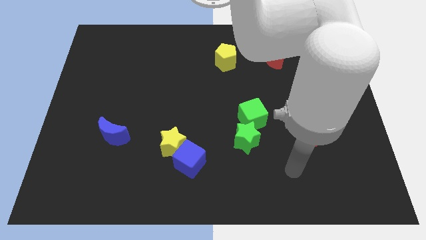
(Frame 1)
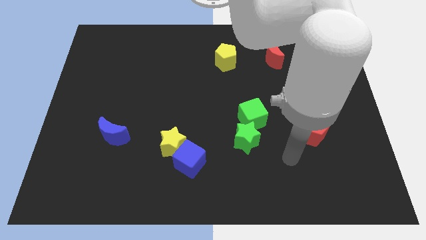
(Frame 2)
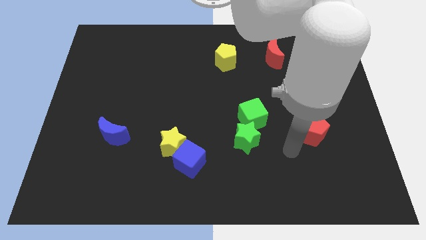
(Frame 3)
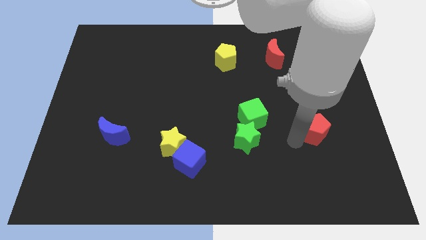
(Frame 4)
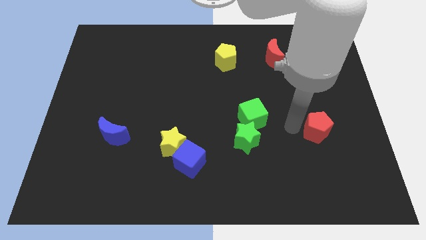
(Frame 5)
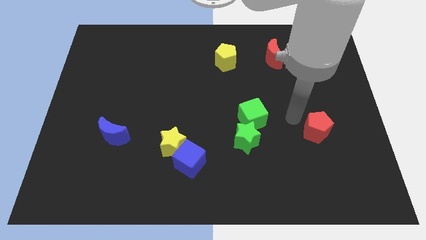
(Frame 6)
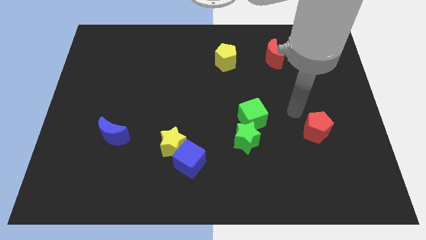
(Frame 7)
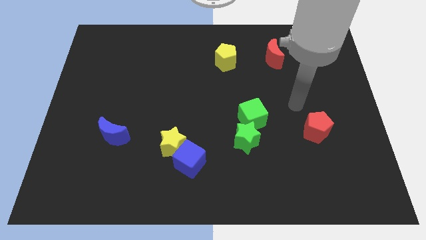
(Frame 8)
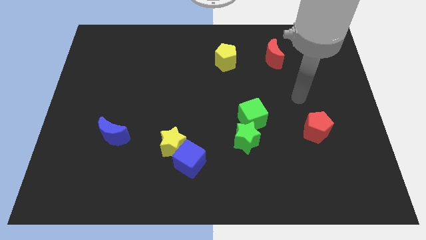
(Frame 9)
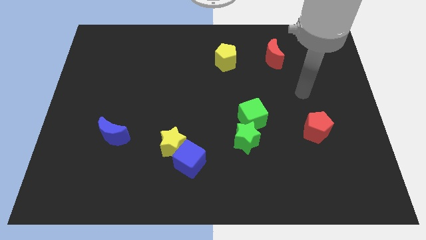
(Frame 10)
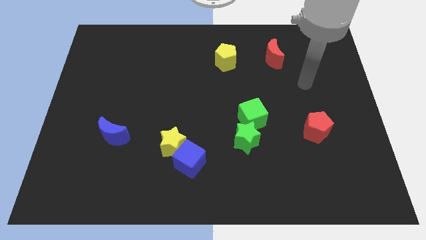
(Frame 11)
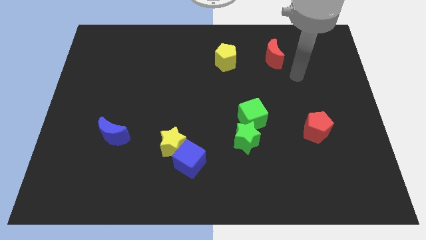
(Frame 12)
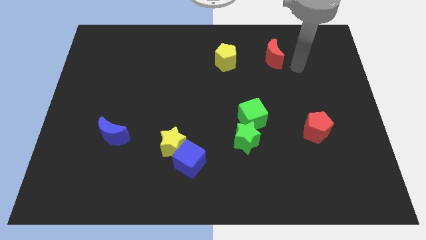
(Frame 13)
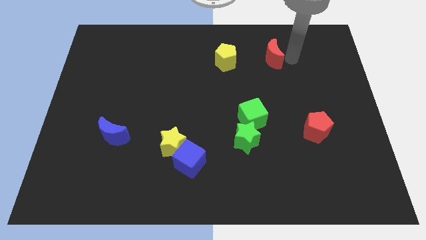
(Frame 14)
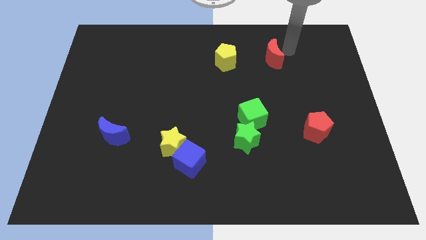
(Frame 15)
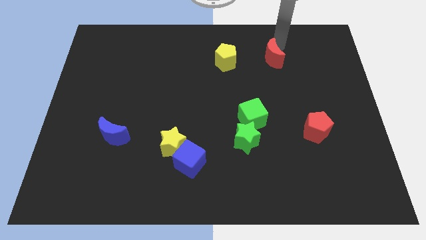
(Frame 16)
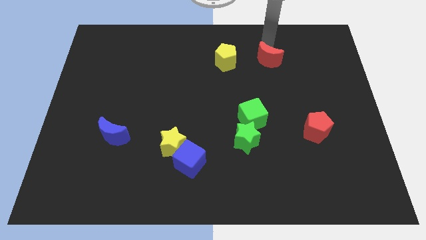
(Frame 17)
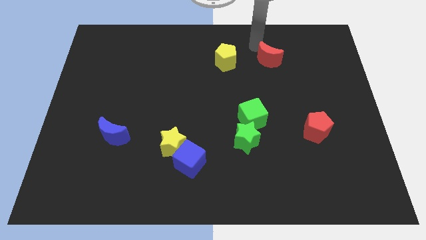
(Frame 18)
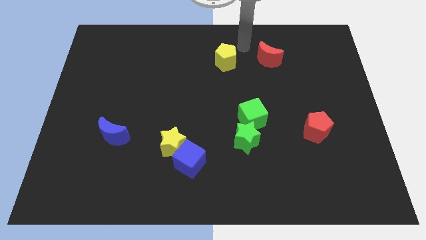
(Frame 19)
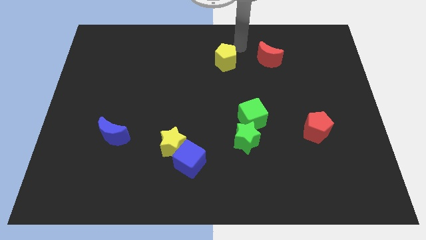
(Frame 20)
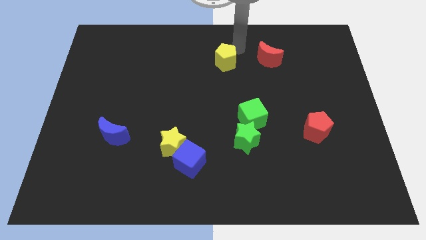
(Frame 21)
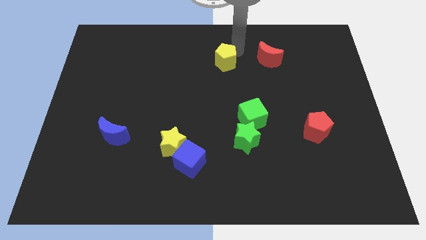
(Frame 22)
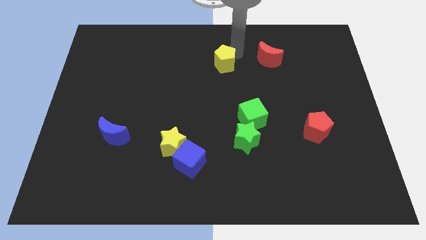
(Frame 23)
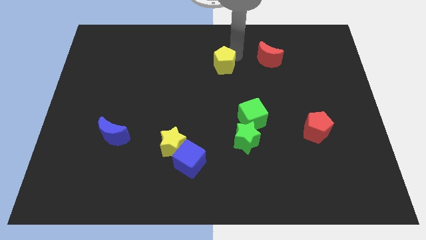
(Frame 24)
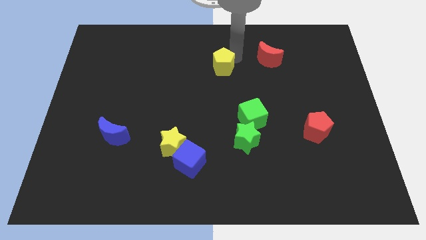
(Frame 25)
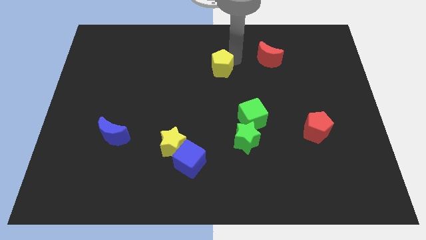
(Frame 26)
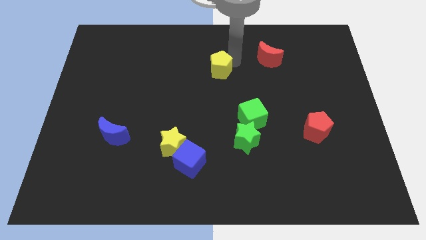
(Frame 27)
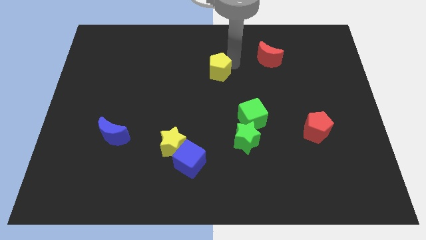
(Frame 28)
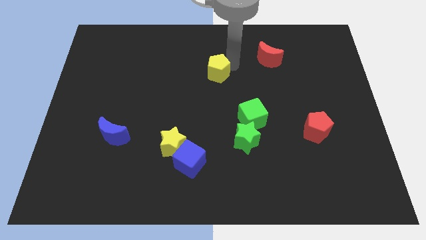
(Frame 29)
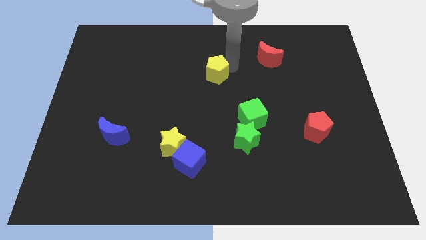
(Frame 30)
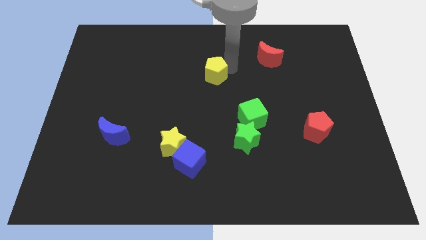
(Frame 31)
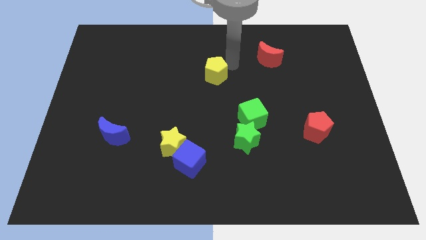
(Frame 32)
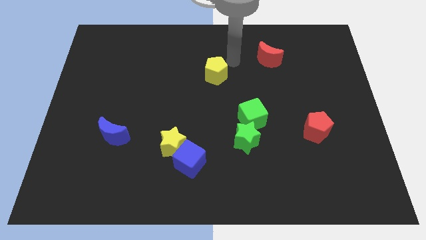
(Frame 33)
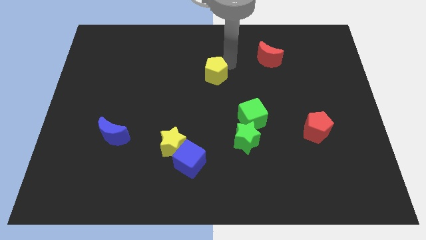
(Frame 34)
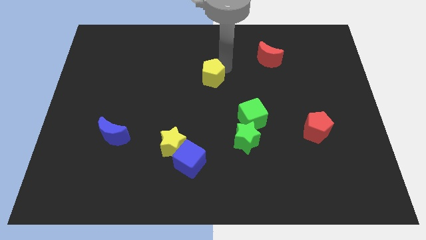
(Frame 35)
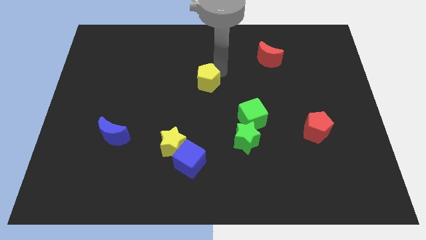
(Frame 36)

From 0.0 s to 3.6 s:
slide the yellow pentagon a bit downwards and then to the left

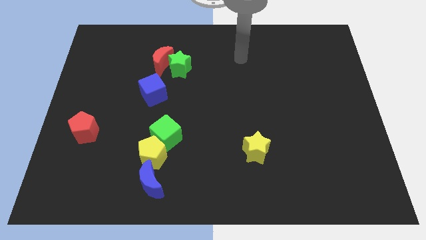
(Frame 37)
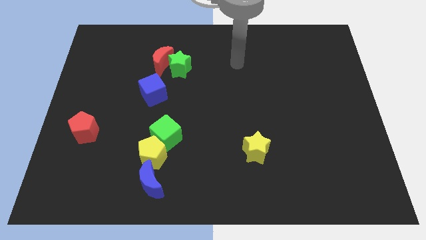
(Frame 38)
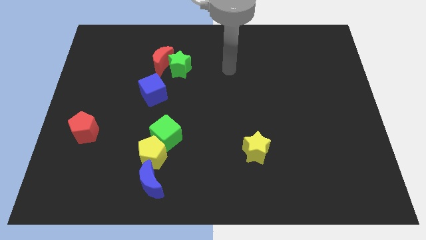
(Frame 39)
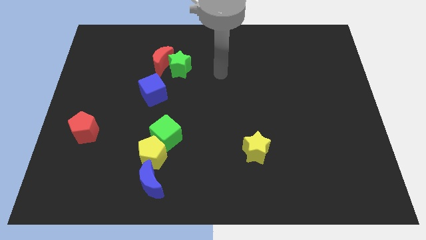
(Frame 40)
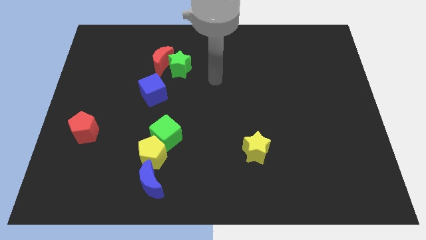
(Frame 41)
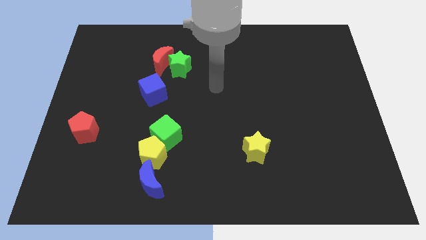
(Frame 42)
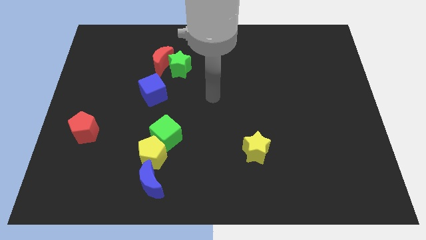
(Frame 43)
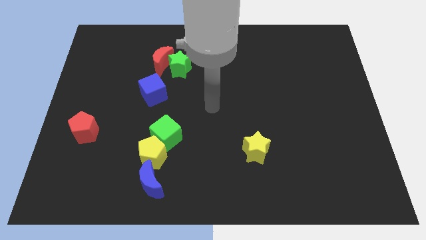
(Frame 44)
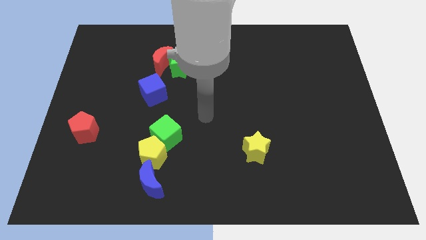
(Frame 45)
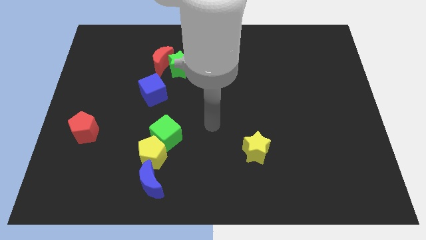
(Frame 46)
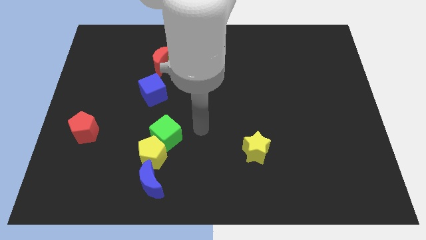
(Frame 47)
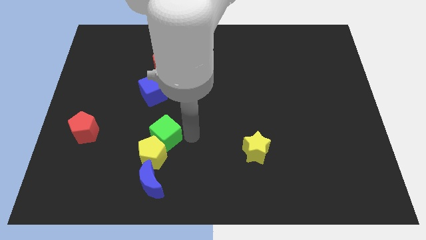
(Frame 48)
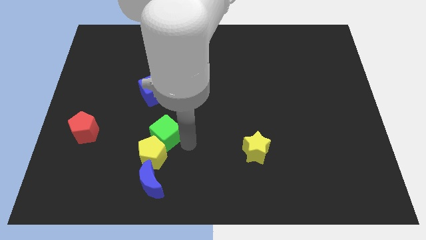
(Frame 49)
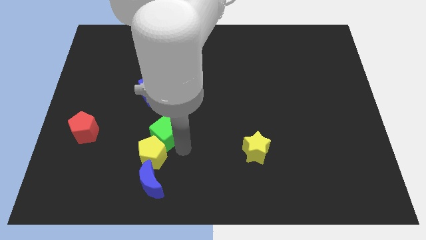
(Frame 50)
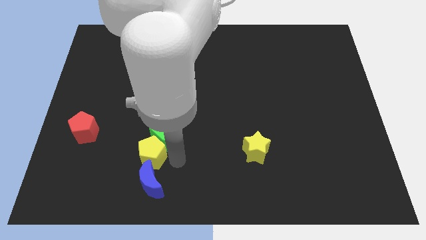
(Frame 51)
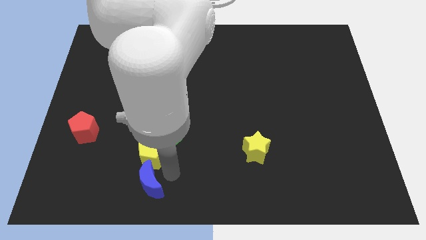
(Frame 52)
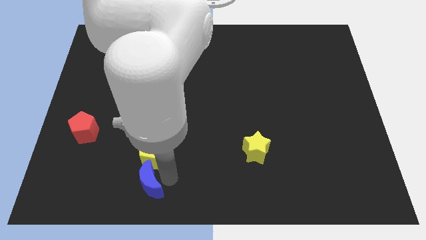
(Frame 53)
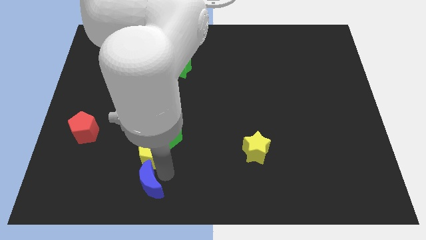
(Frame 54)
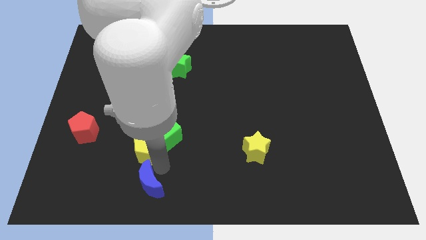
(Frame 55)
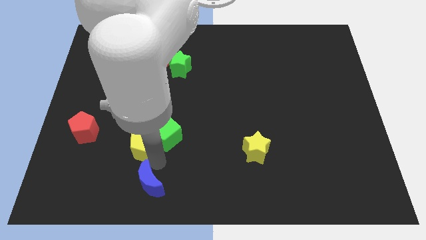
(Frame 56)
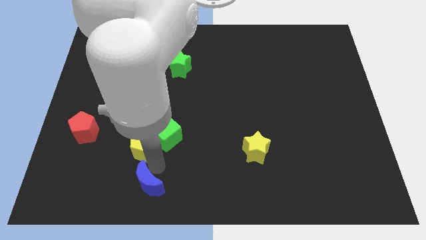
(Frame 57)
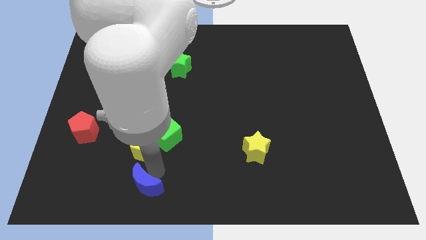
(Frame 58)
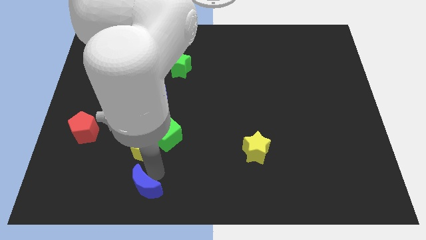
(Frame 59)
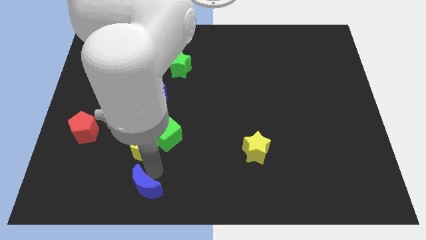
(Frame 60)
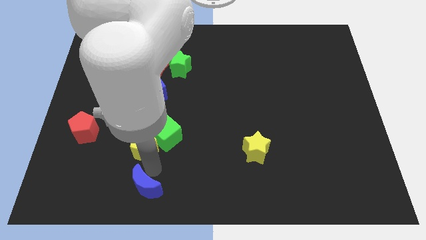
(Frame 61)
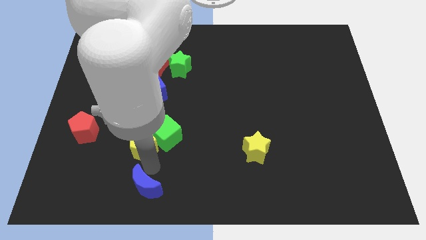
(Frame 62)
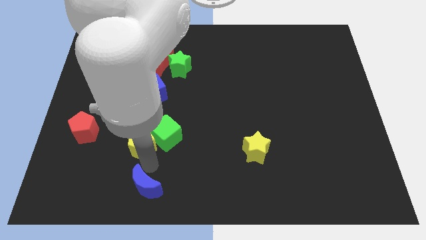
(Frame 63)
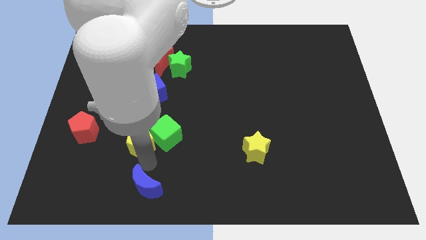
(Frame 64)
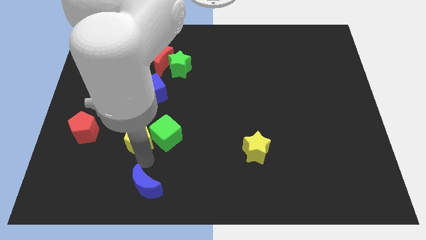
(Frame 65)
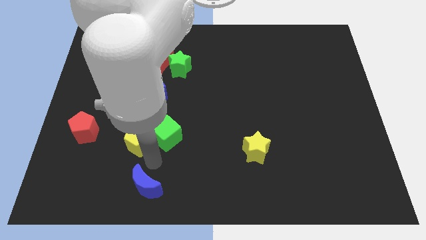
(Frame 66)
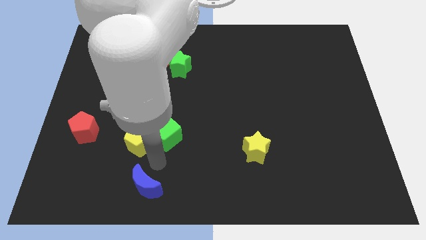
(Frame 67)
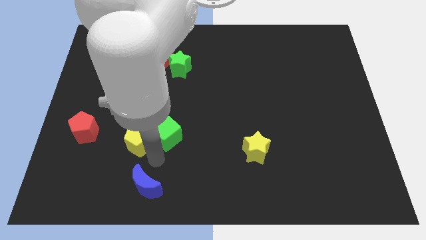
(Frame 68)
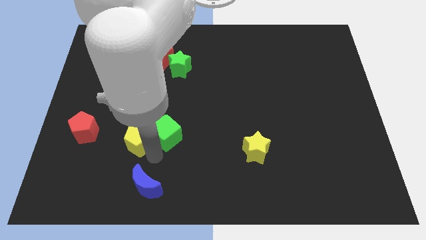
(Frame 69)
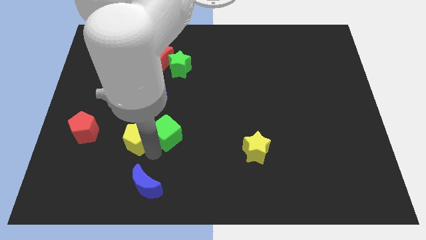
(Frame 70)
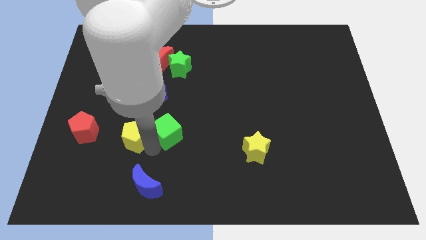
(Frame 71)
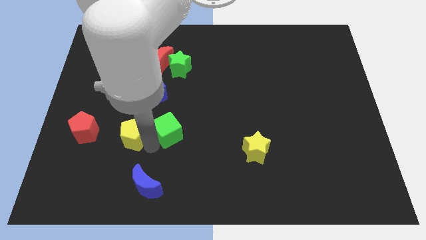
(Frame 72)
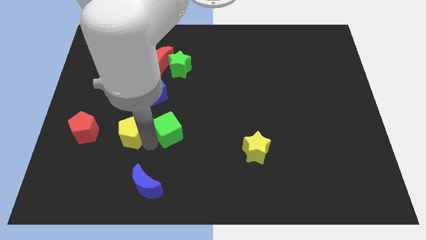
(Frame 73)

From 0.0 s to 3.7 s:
slide the yellow pentagon somewhat up and left diagonally

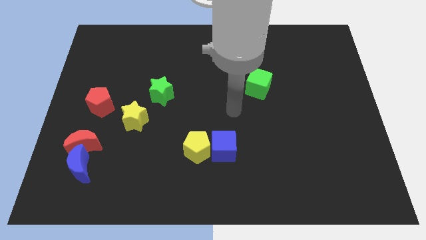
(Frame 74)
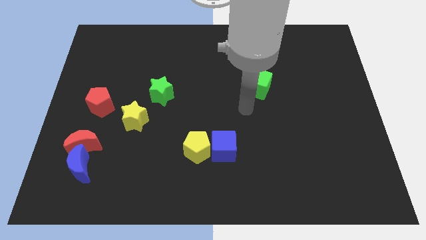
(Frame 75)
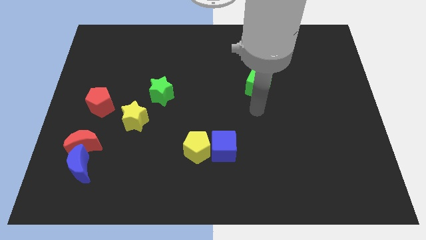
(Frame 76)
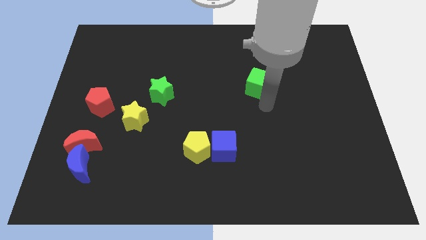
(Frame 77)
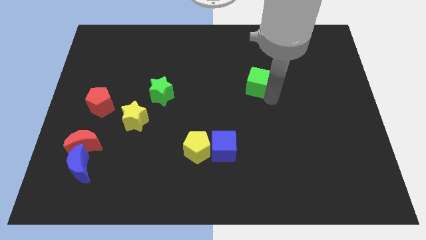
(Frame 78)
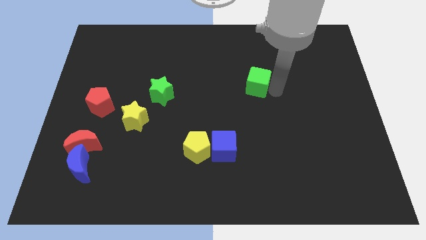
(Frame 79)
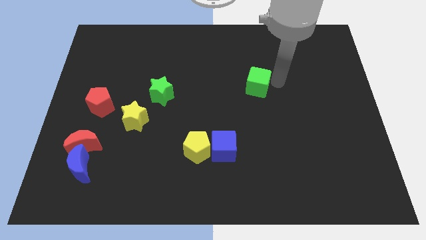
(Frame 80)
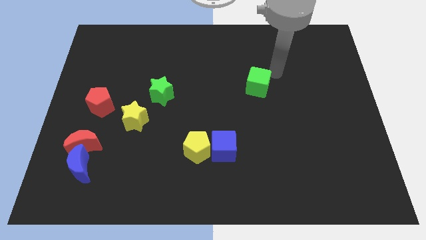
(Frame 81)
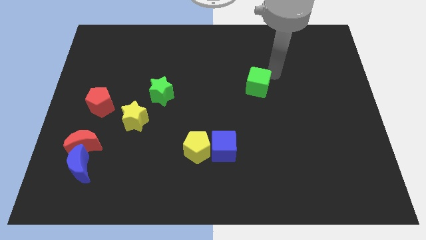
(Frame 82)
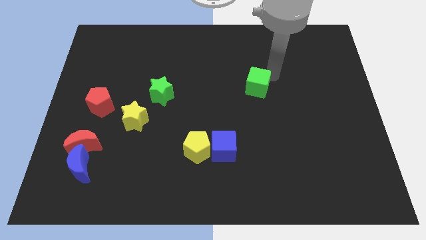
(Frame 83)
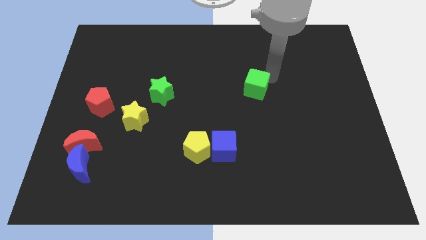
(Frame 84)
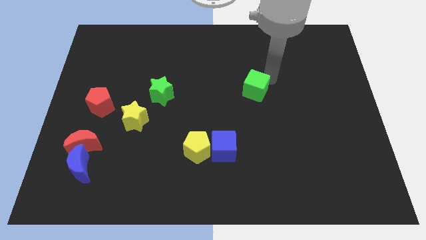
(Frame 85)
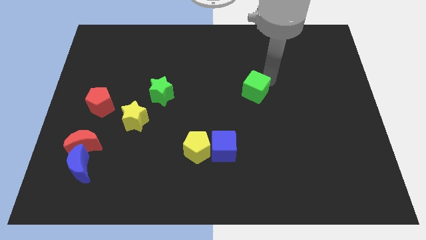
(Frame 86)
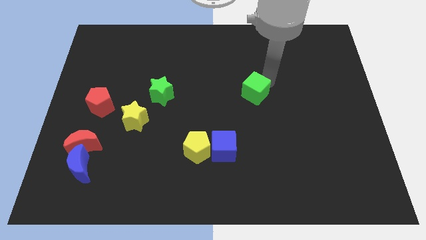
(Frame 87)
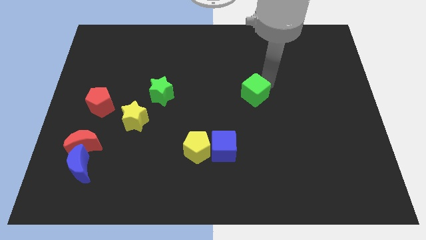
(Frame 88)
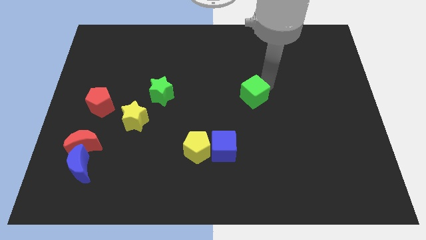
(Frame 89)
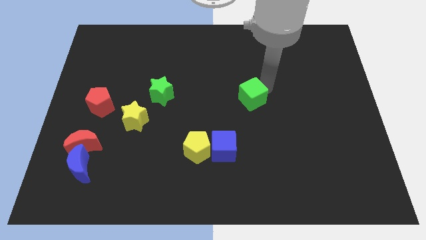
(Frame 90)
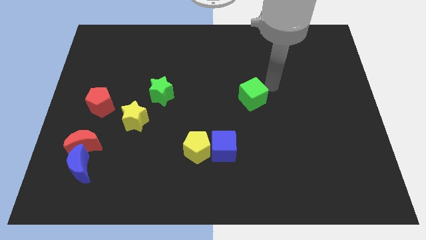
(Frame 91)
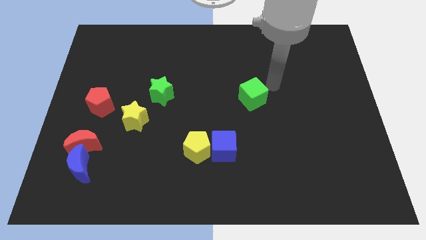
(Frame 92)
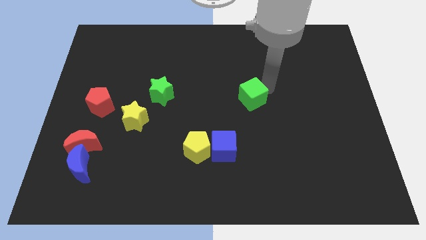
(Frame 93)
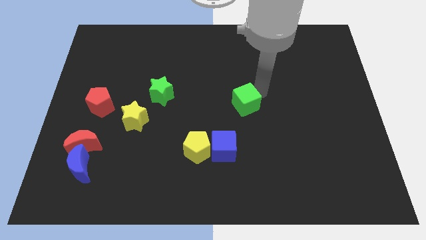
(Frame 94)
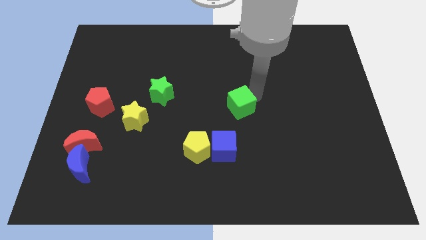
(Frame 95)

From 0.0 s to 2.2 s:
slightly move the green cube downwards and to the left diagonally
